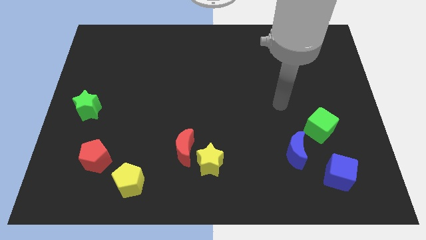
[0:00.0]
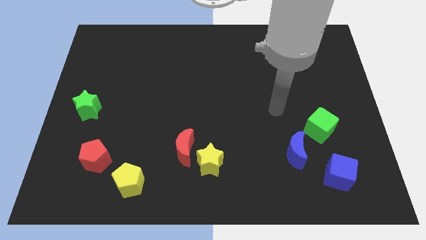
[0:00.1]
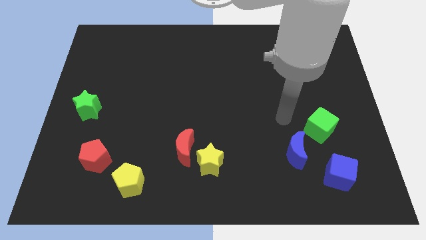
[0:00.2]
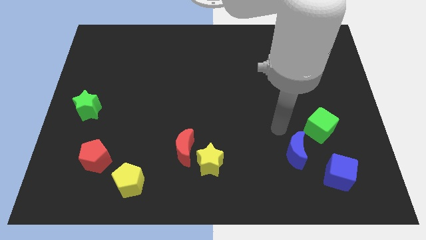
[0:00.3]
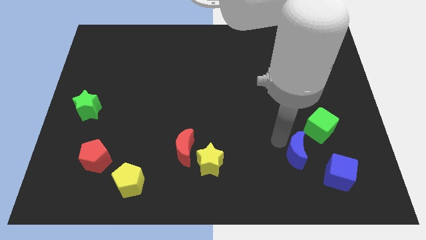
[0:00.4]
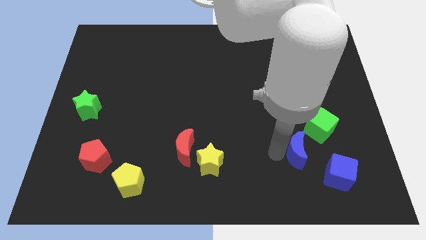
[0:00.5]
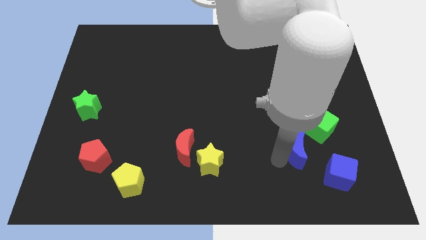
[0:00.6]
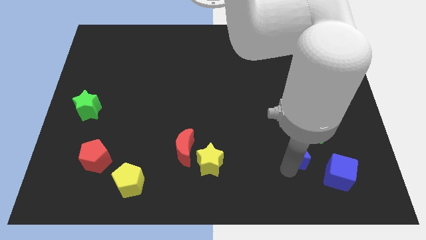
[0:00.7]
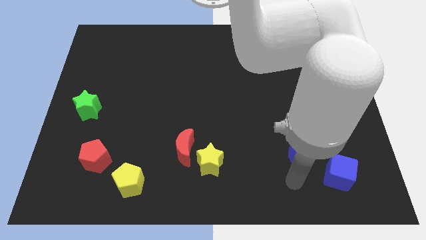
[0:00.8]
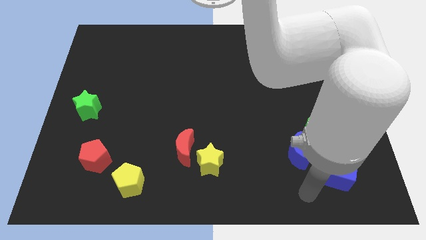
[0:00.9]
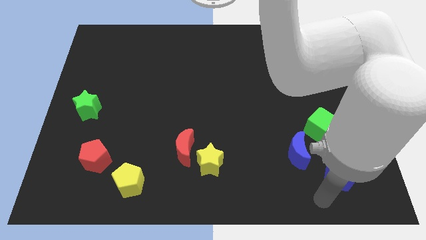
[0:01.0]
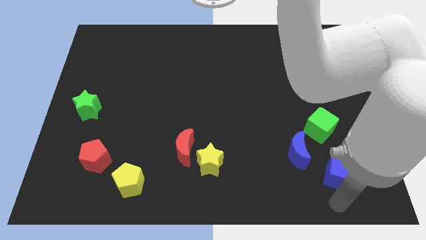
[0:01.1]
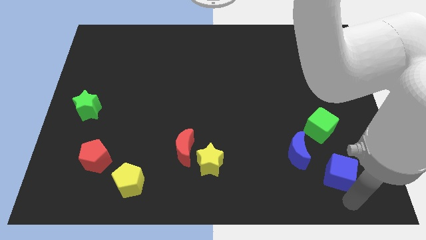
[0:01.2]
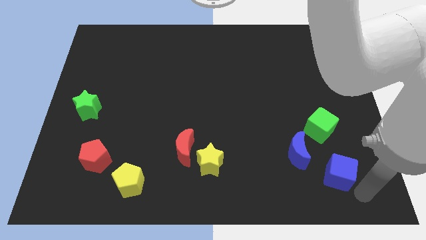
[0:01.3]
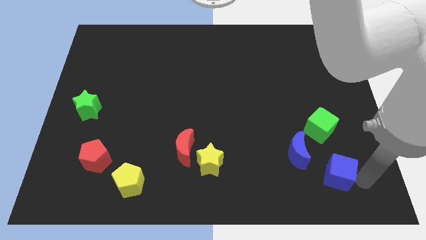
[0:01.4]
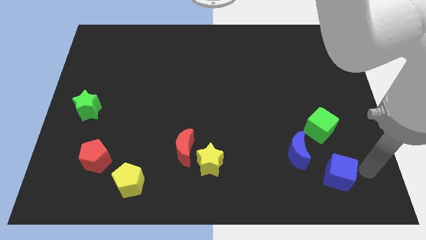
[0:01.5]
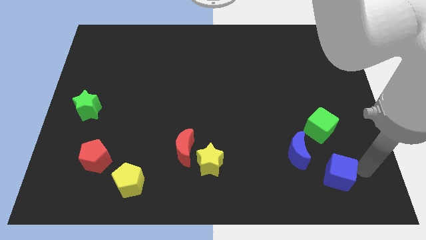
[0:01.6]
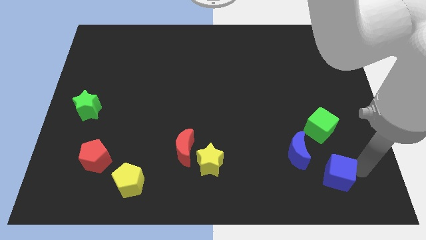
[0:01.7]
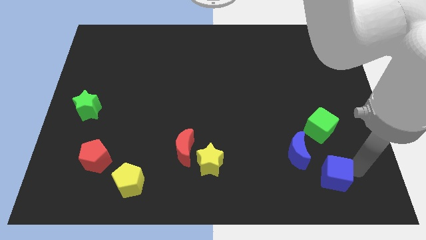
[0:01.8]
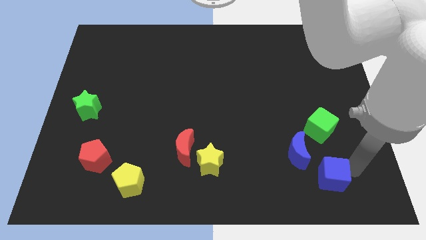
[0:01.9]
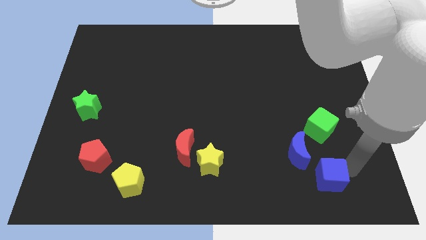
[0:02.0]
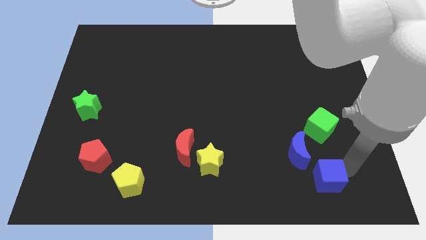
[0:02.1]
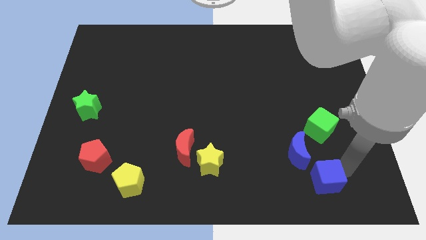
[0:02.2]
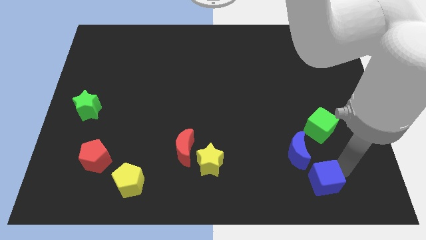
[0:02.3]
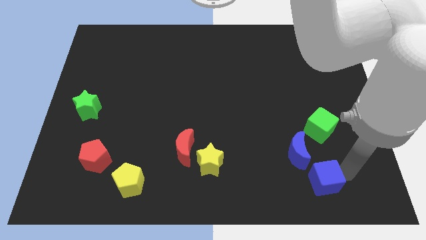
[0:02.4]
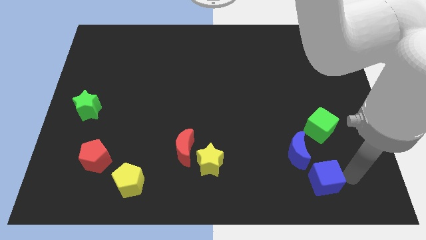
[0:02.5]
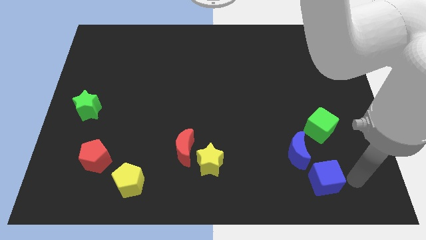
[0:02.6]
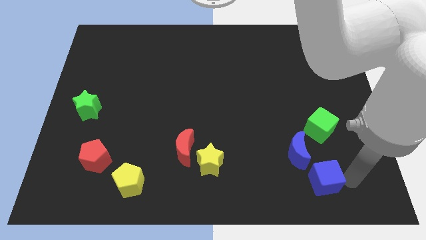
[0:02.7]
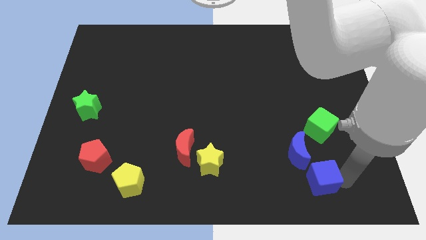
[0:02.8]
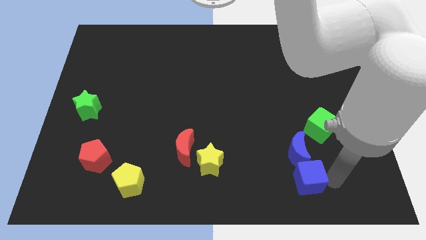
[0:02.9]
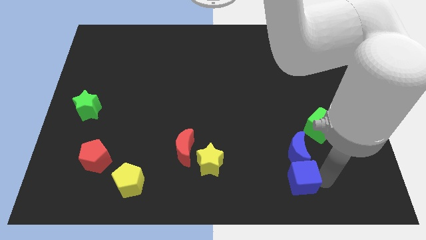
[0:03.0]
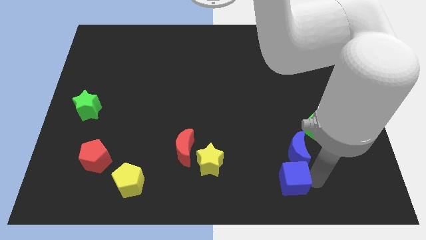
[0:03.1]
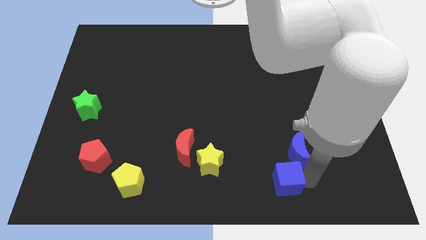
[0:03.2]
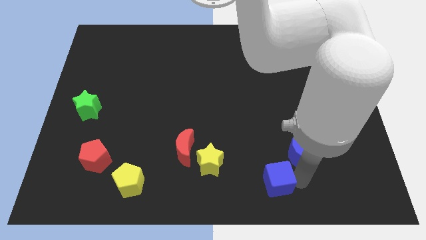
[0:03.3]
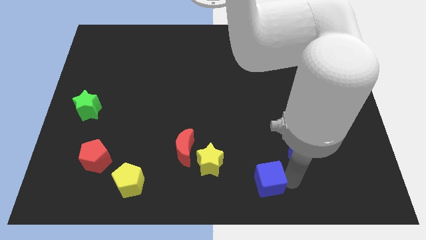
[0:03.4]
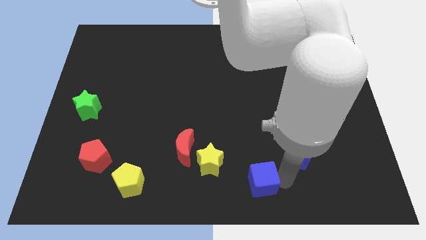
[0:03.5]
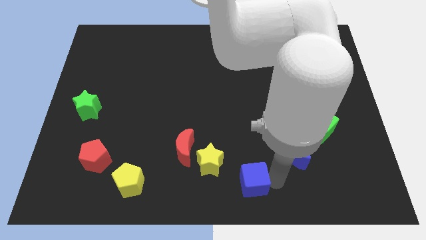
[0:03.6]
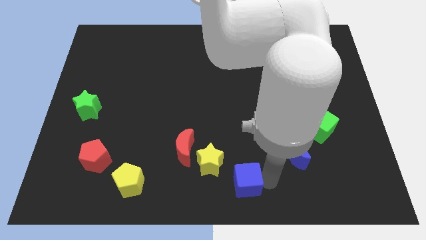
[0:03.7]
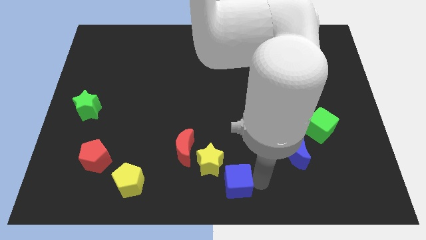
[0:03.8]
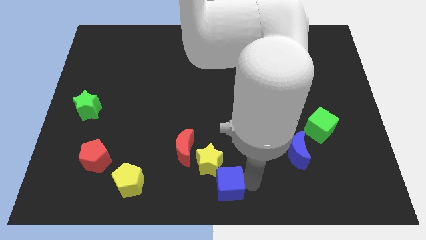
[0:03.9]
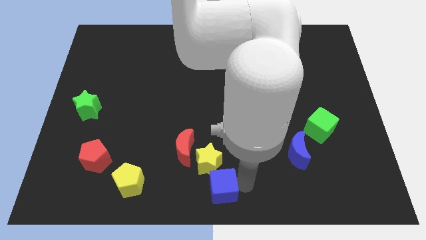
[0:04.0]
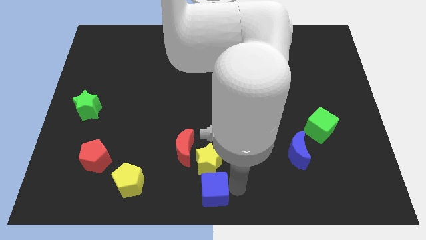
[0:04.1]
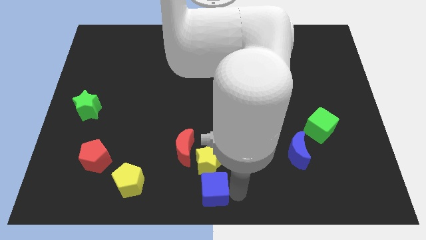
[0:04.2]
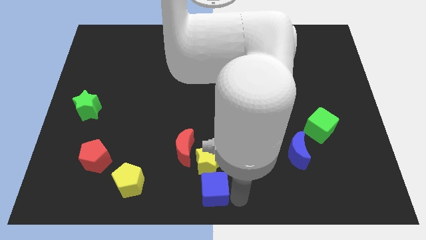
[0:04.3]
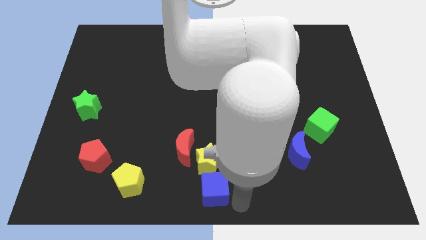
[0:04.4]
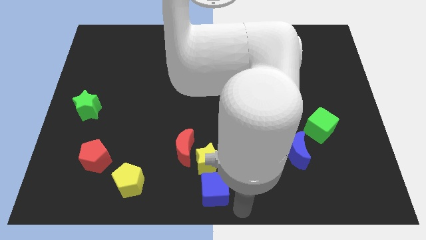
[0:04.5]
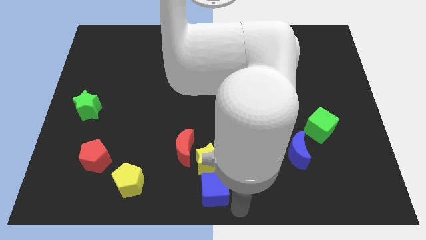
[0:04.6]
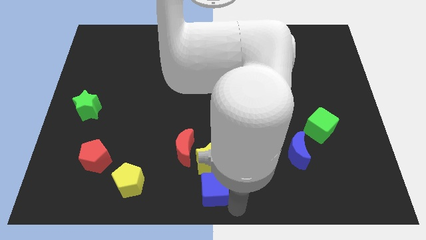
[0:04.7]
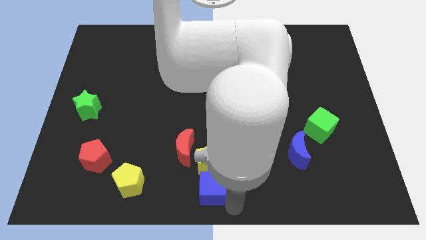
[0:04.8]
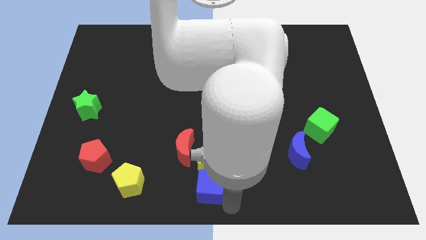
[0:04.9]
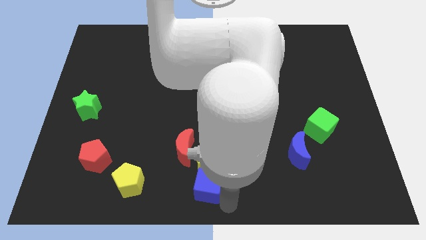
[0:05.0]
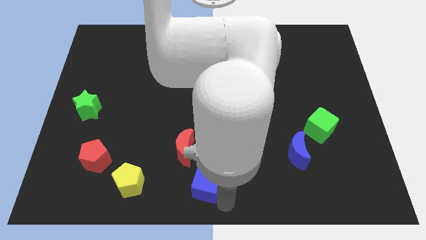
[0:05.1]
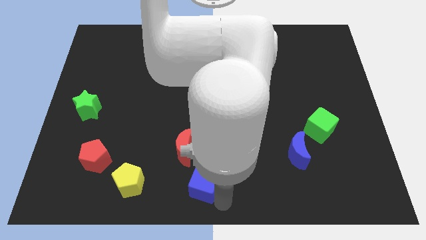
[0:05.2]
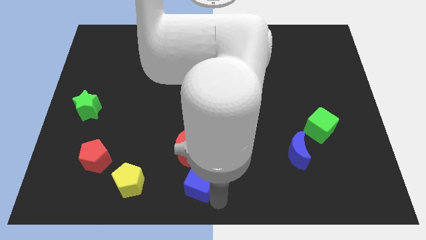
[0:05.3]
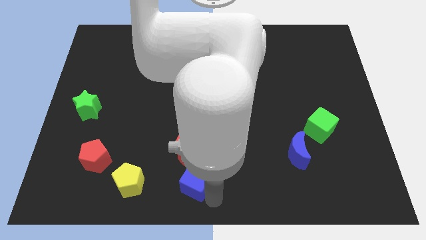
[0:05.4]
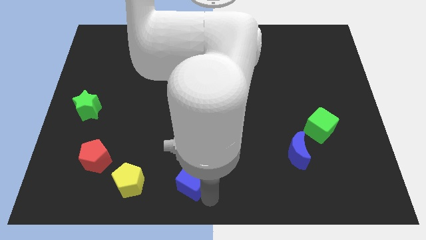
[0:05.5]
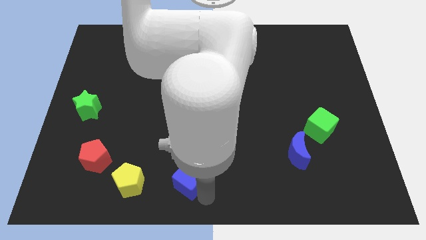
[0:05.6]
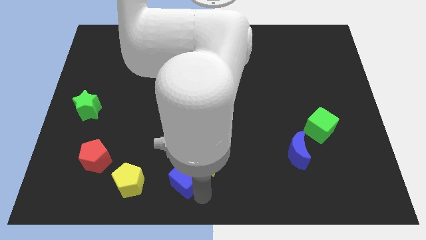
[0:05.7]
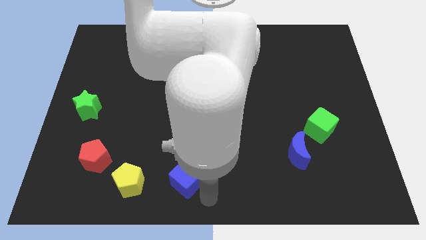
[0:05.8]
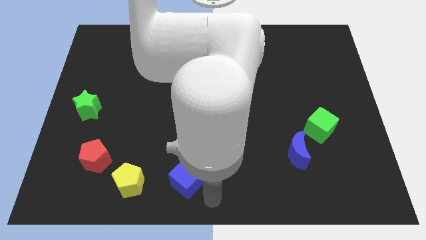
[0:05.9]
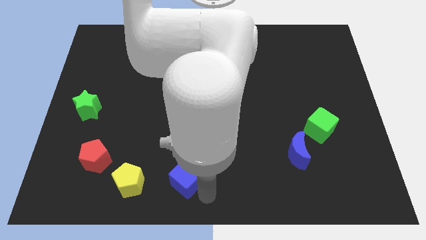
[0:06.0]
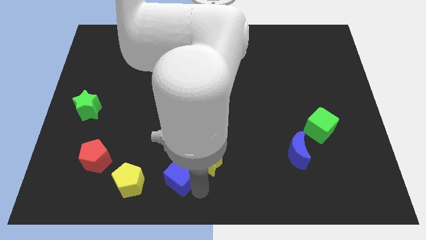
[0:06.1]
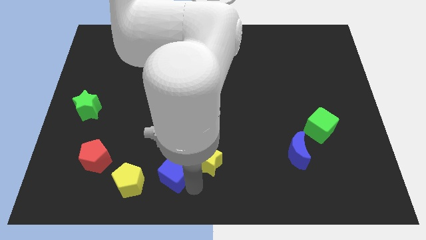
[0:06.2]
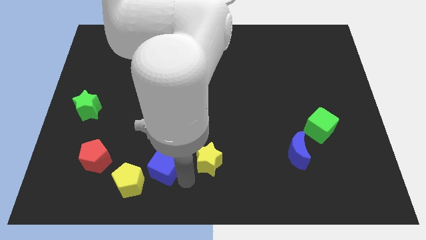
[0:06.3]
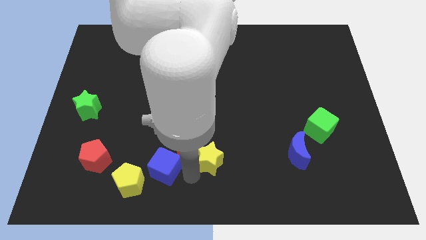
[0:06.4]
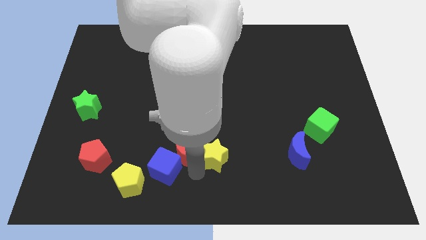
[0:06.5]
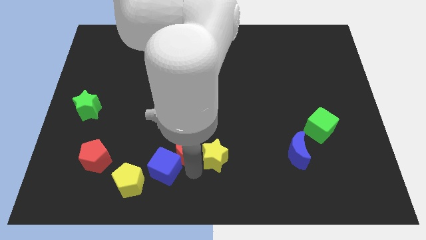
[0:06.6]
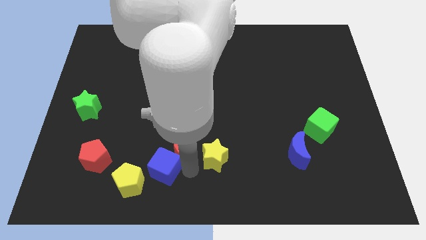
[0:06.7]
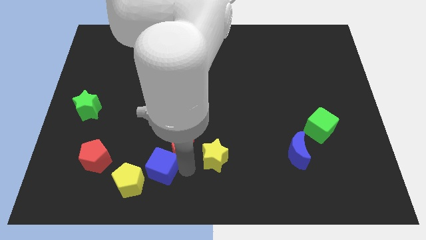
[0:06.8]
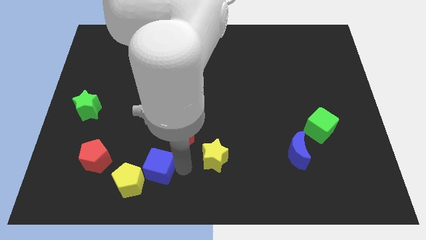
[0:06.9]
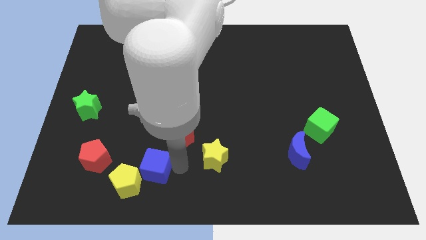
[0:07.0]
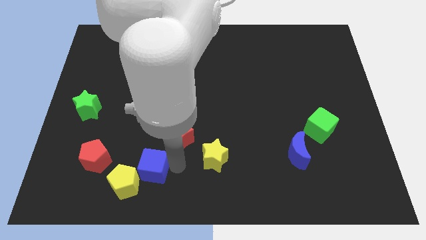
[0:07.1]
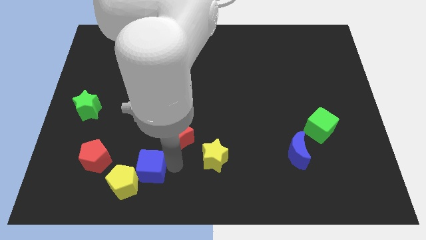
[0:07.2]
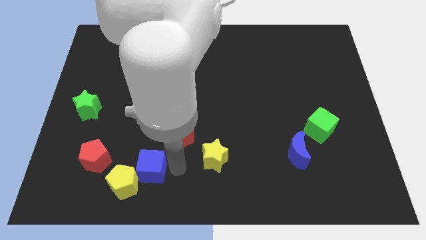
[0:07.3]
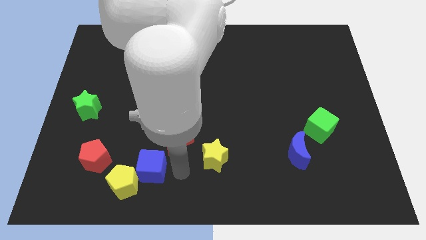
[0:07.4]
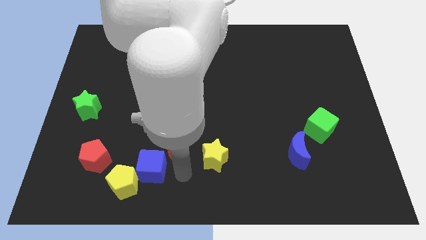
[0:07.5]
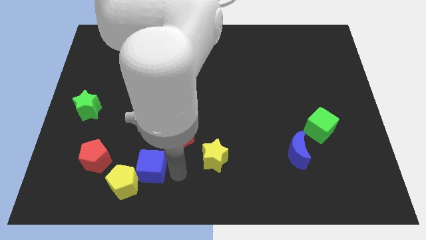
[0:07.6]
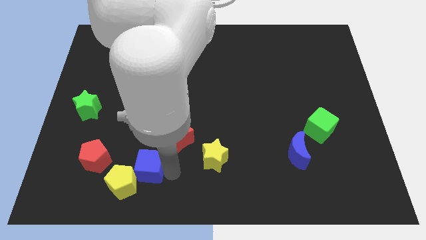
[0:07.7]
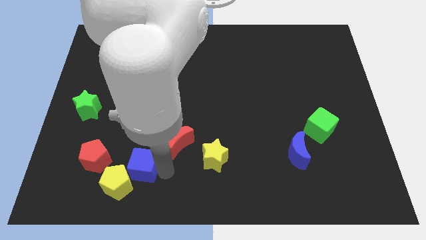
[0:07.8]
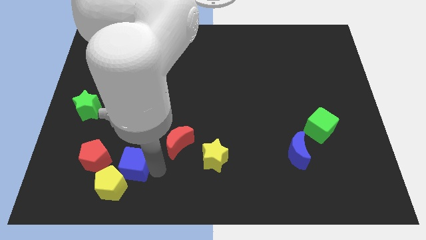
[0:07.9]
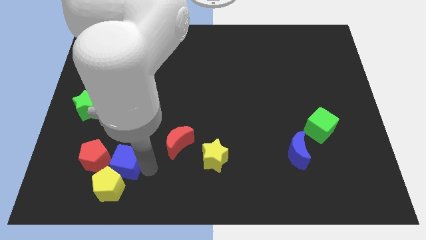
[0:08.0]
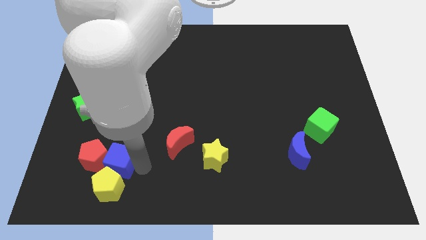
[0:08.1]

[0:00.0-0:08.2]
push the blue cube to the red pentagon
